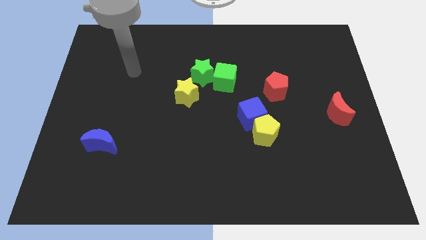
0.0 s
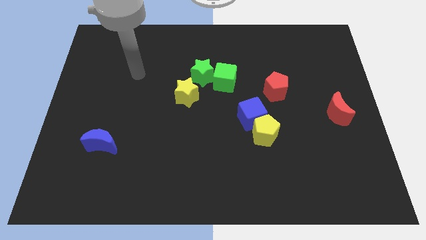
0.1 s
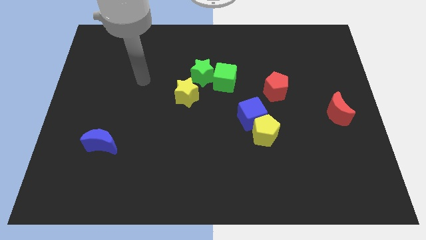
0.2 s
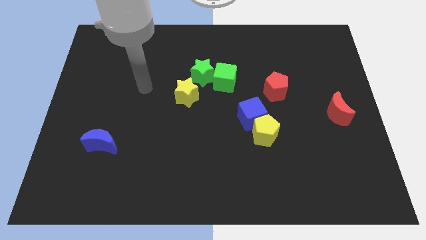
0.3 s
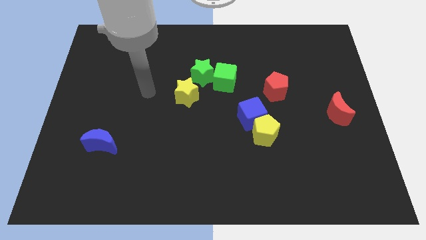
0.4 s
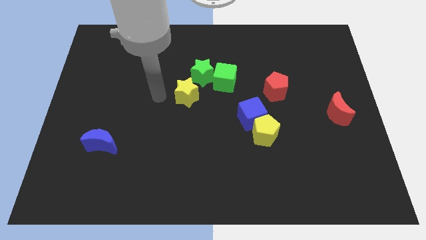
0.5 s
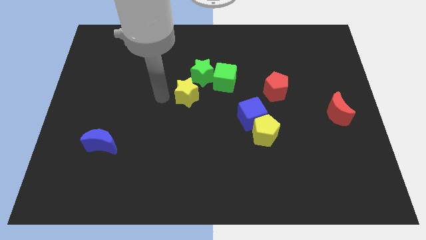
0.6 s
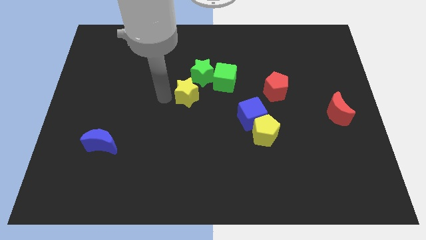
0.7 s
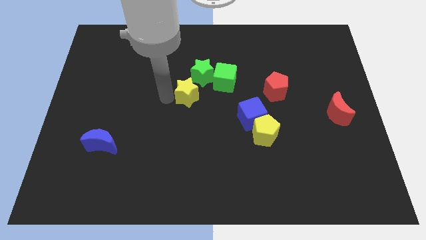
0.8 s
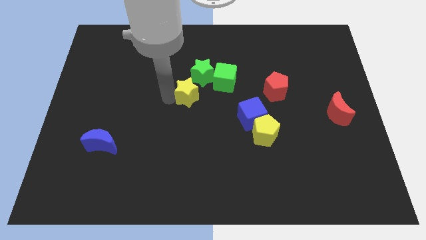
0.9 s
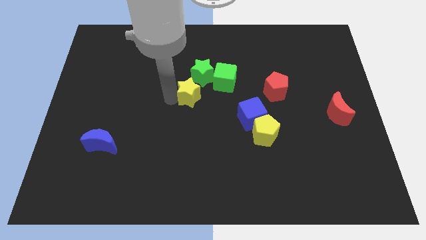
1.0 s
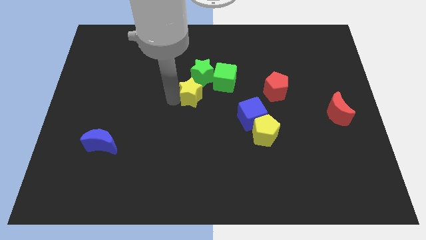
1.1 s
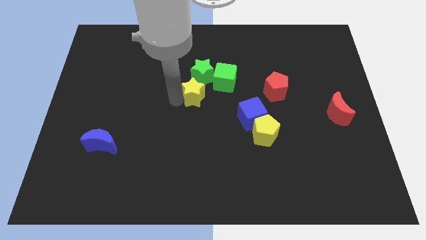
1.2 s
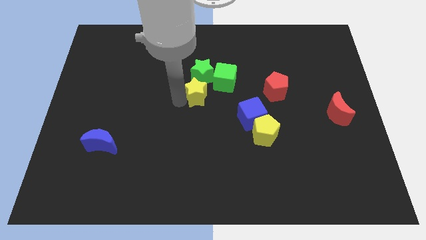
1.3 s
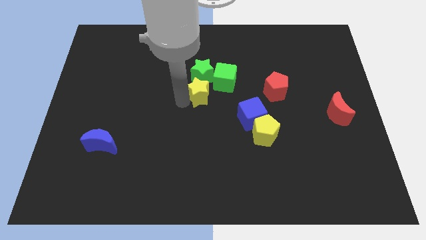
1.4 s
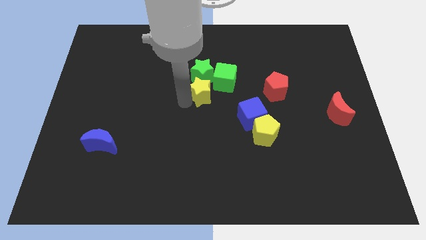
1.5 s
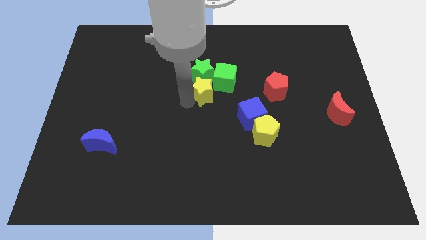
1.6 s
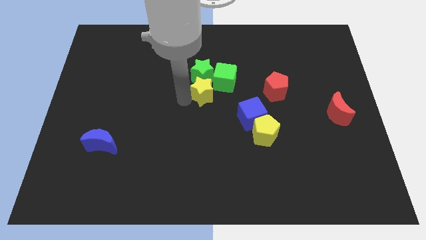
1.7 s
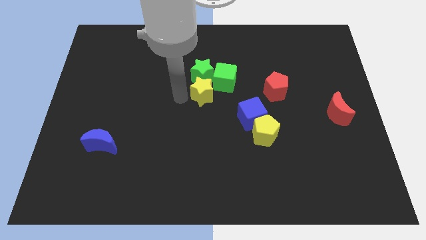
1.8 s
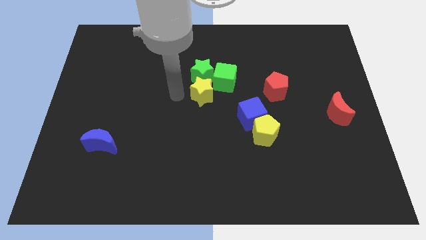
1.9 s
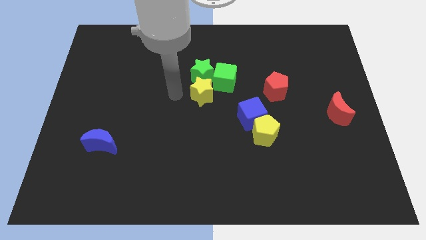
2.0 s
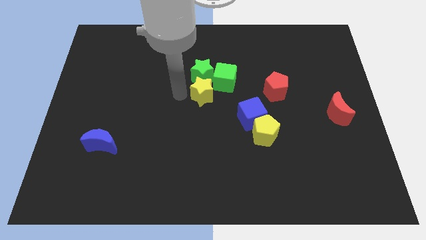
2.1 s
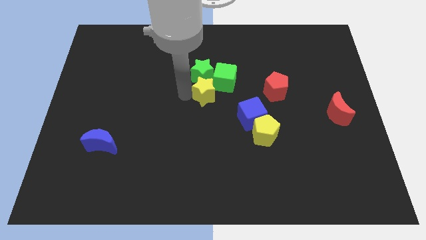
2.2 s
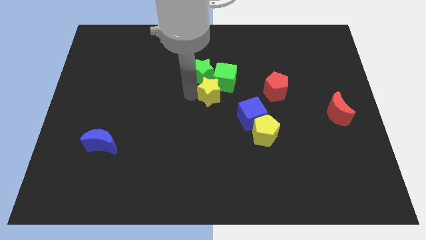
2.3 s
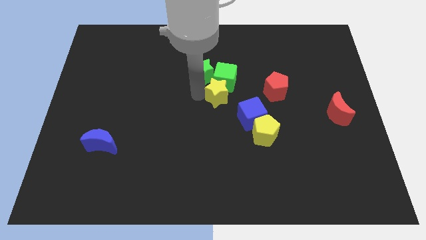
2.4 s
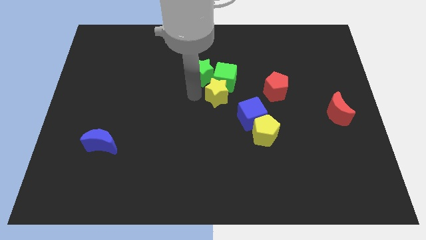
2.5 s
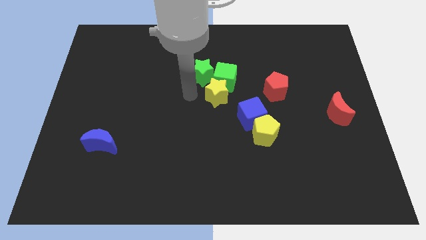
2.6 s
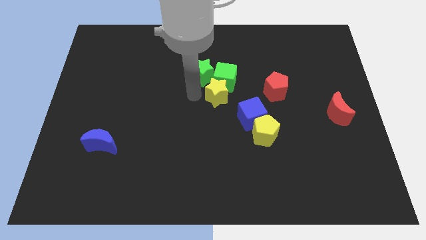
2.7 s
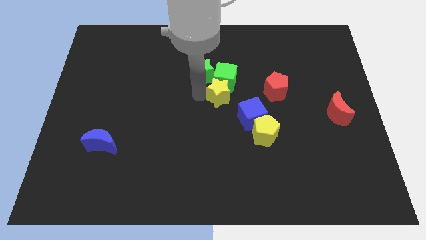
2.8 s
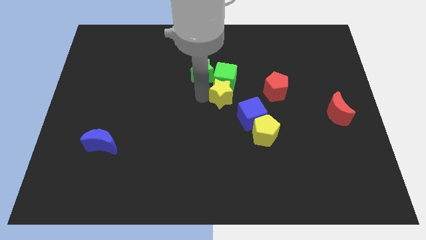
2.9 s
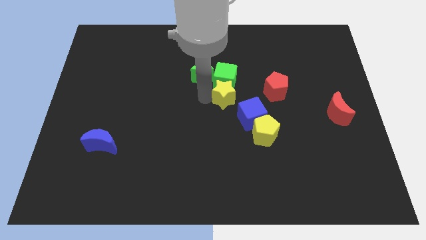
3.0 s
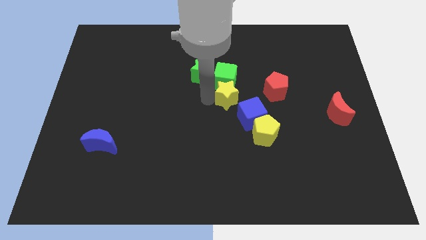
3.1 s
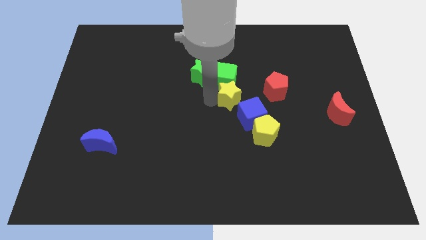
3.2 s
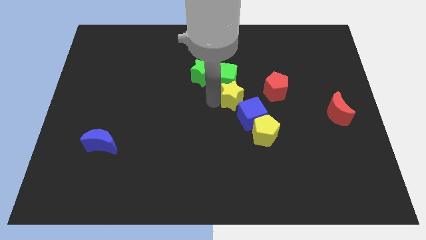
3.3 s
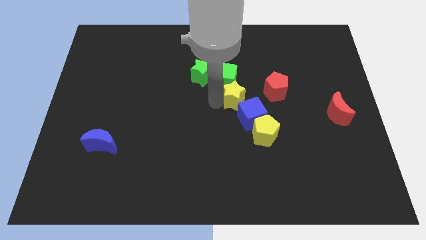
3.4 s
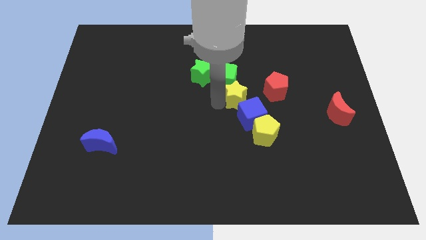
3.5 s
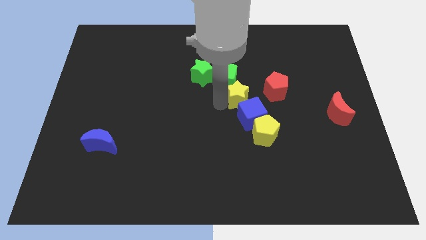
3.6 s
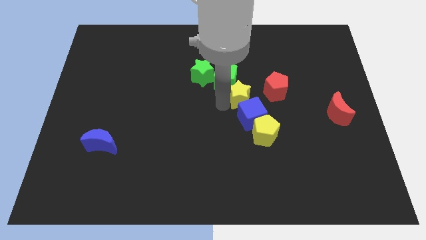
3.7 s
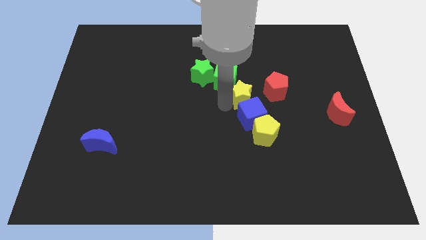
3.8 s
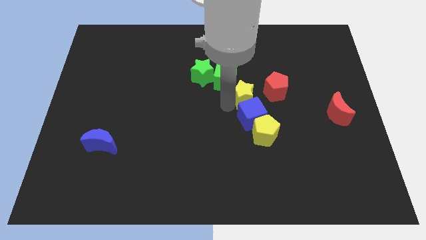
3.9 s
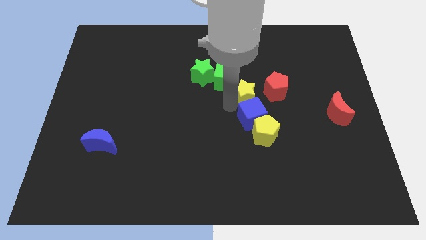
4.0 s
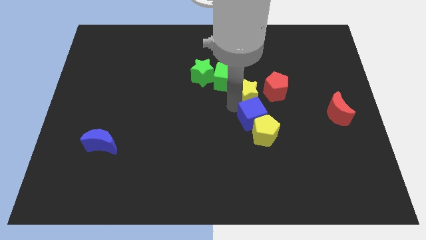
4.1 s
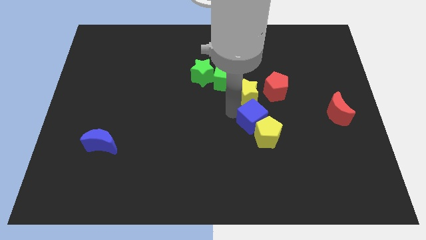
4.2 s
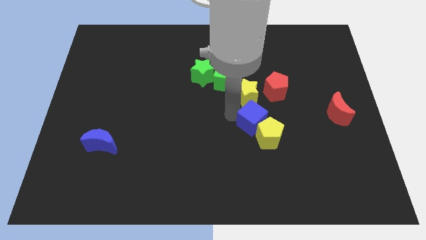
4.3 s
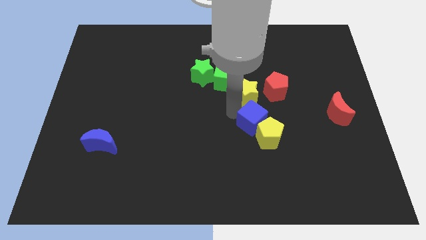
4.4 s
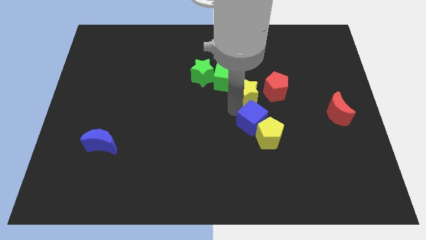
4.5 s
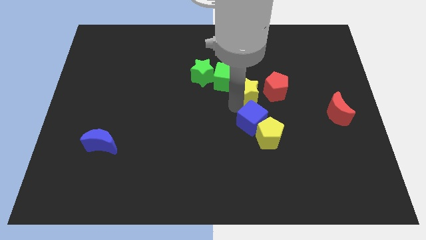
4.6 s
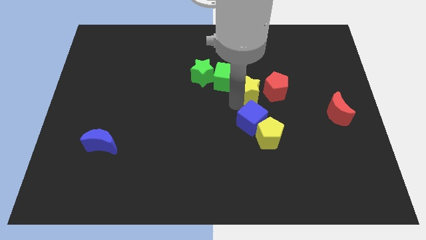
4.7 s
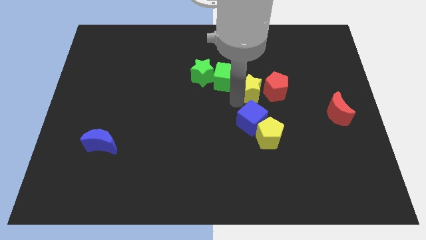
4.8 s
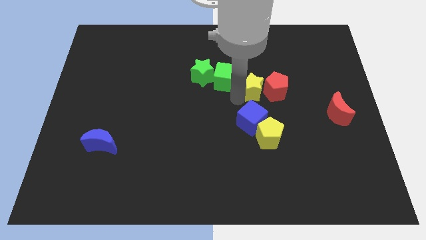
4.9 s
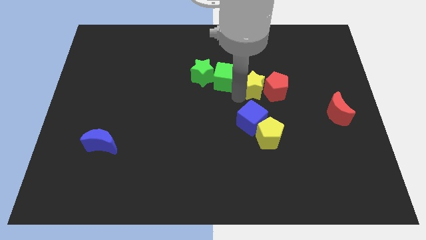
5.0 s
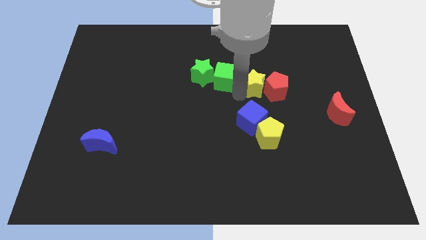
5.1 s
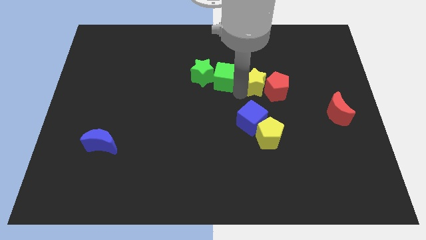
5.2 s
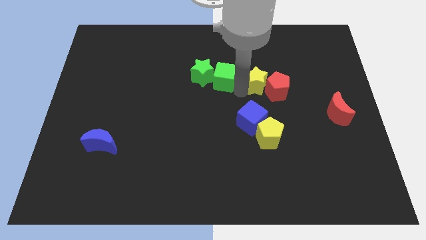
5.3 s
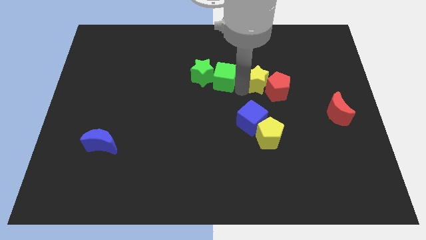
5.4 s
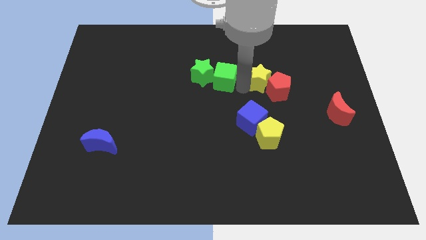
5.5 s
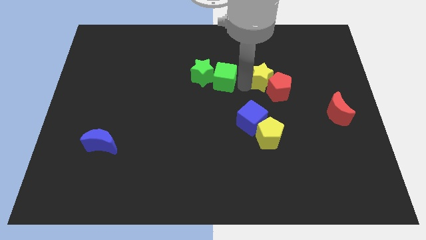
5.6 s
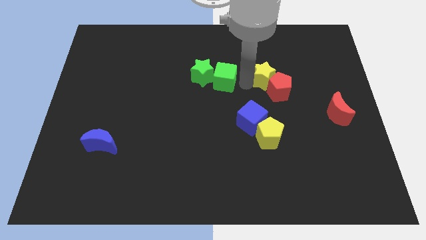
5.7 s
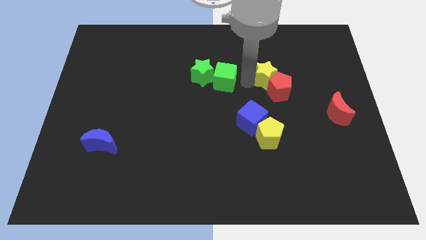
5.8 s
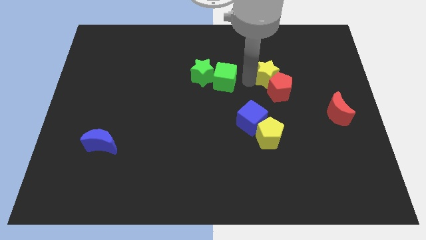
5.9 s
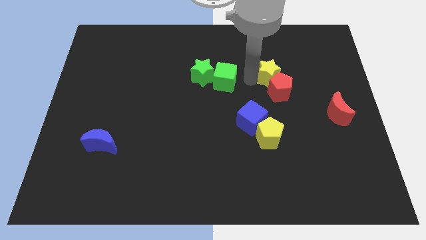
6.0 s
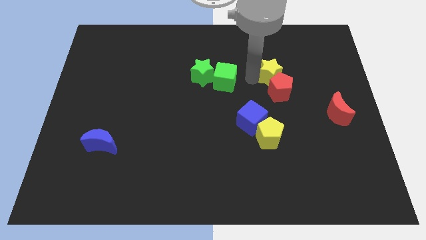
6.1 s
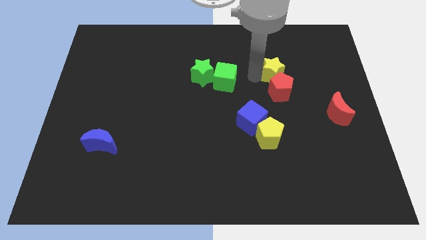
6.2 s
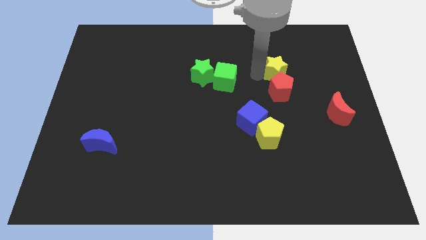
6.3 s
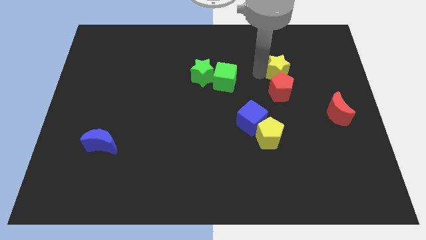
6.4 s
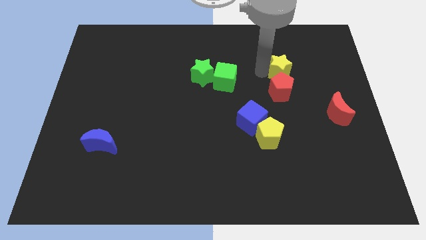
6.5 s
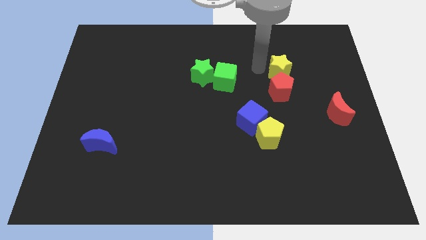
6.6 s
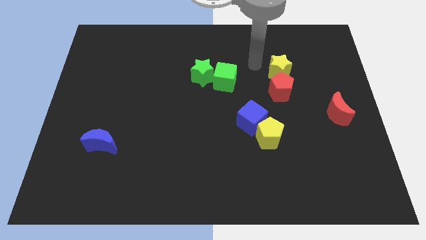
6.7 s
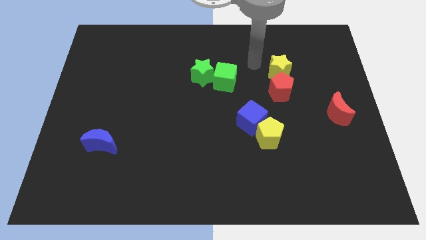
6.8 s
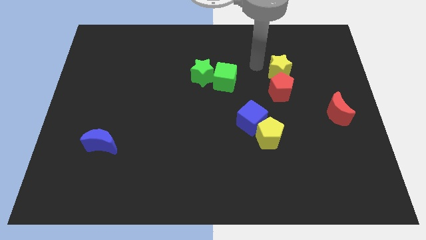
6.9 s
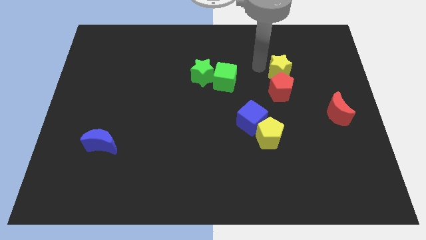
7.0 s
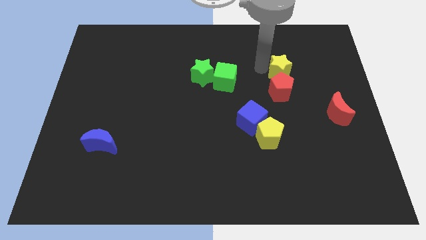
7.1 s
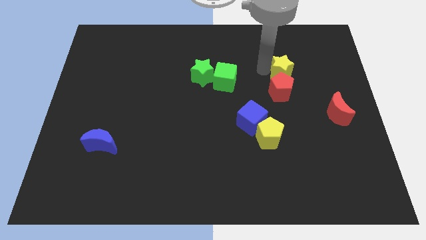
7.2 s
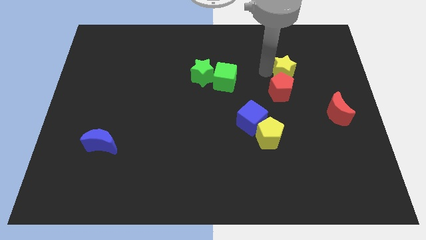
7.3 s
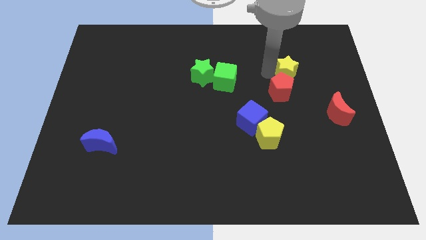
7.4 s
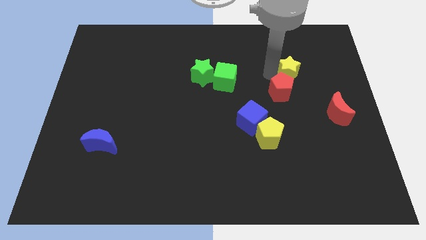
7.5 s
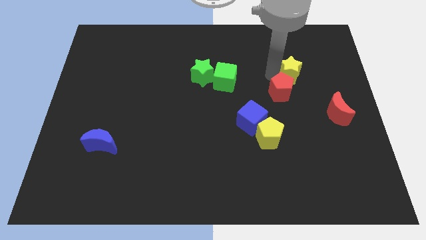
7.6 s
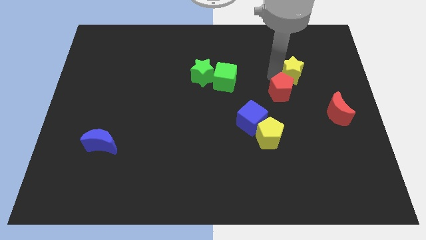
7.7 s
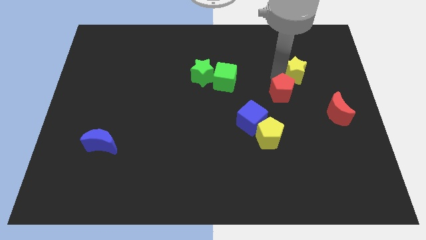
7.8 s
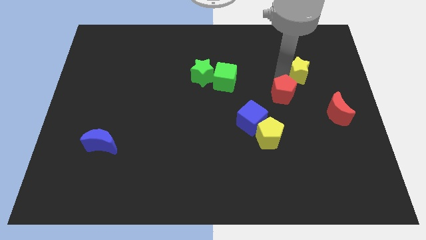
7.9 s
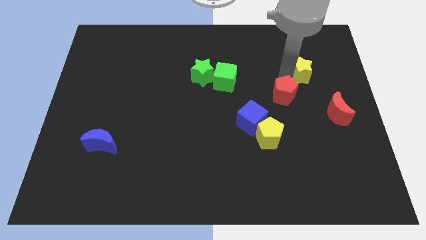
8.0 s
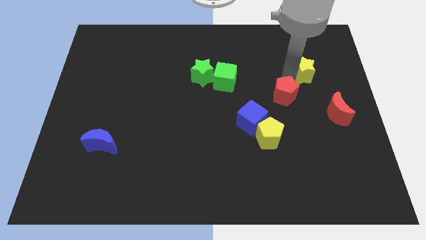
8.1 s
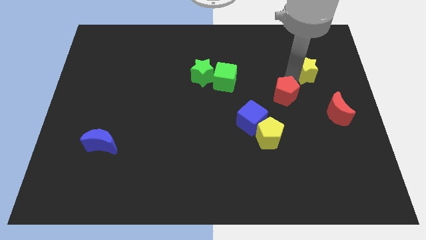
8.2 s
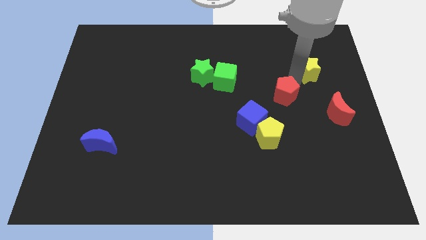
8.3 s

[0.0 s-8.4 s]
slide the yellow star to the top side of the red moon

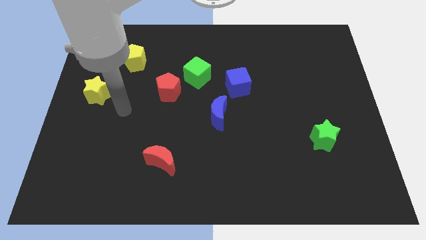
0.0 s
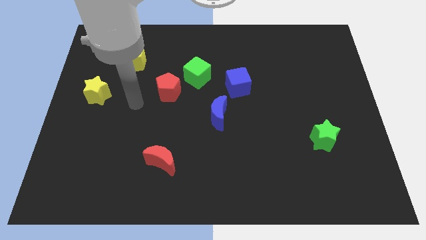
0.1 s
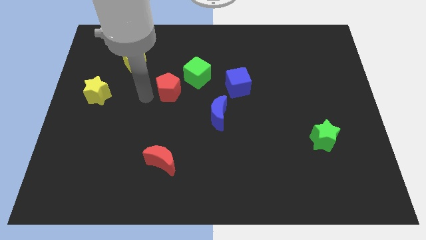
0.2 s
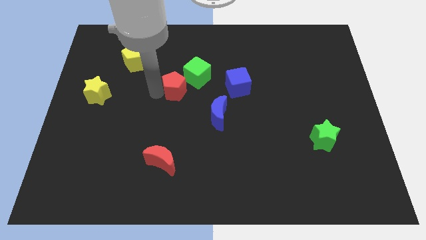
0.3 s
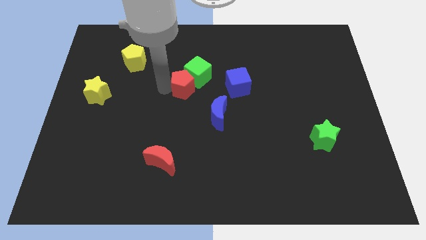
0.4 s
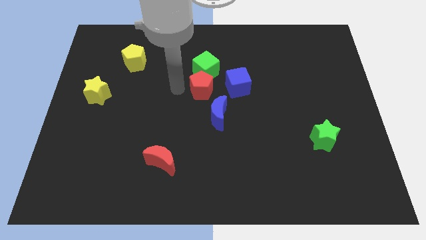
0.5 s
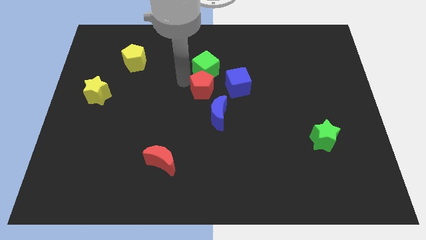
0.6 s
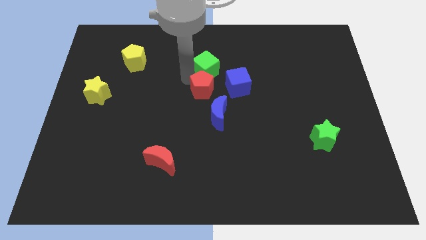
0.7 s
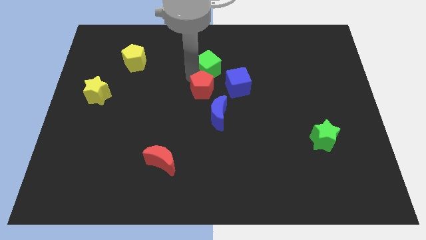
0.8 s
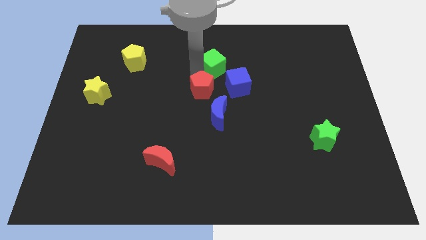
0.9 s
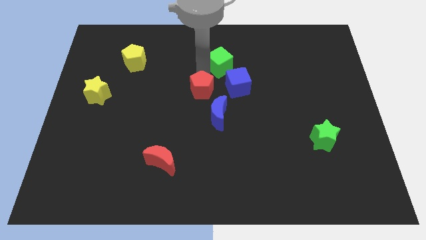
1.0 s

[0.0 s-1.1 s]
move the green cube above the blue cube
